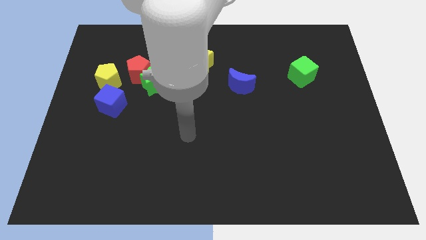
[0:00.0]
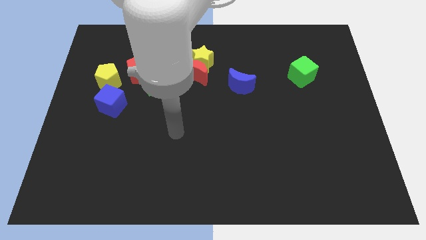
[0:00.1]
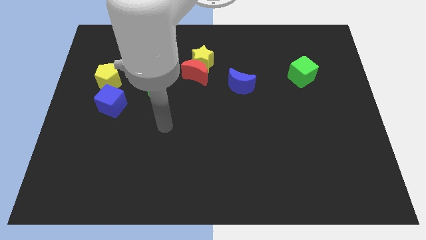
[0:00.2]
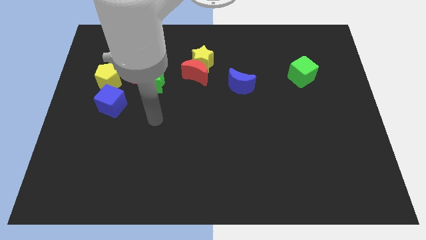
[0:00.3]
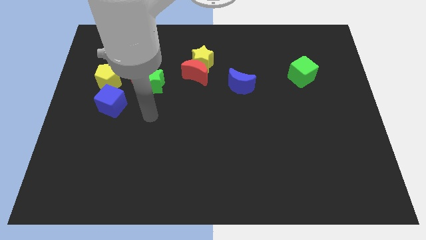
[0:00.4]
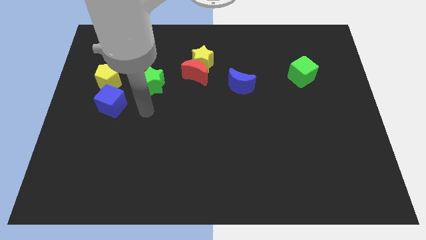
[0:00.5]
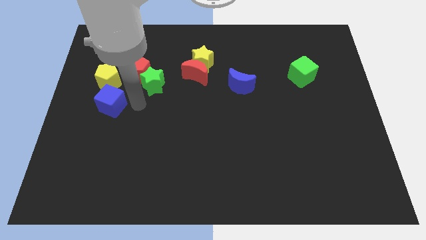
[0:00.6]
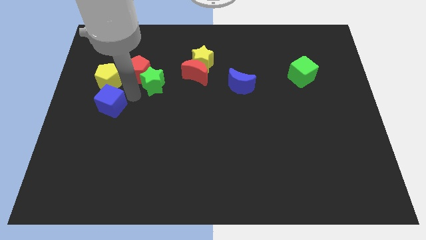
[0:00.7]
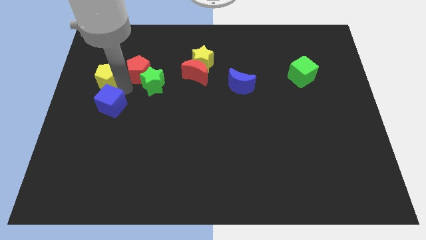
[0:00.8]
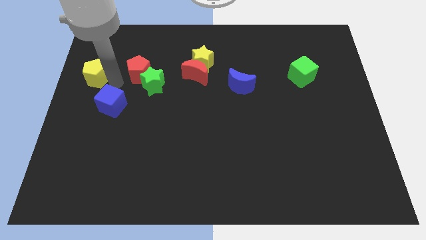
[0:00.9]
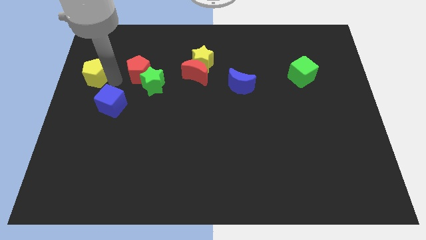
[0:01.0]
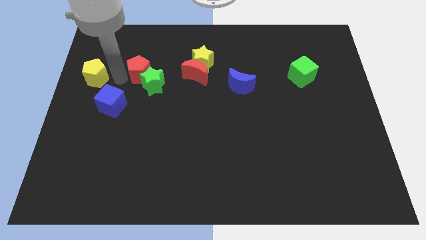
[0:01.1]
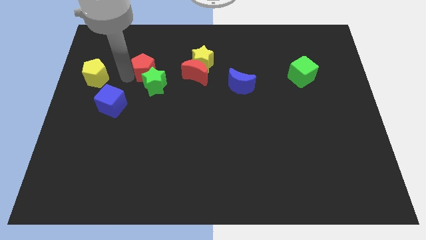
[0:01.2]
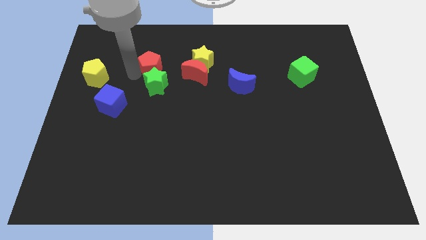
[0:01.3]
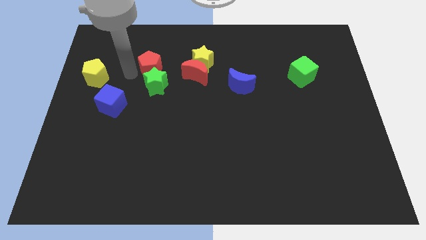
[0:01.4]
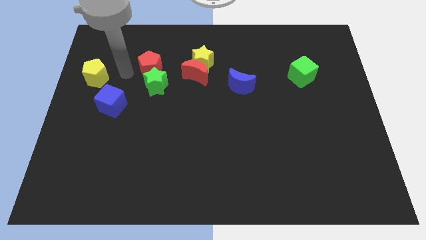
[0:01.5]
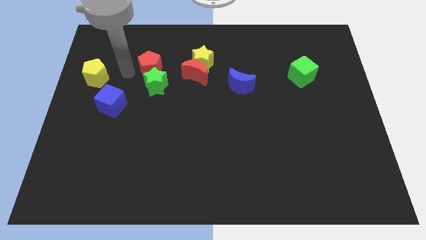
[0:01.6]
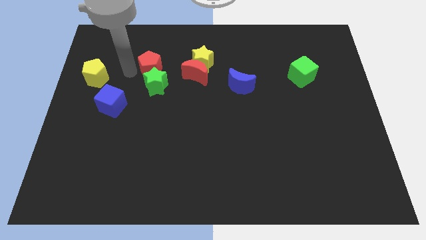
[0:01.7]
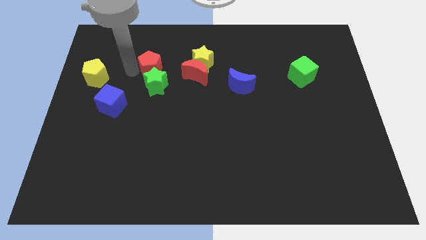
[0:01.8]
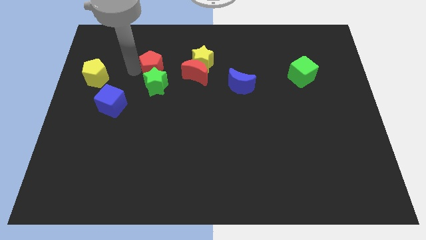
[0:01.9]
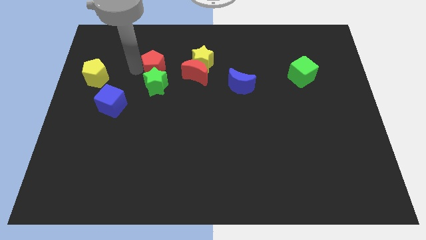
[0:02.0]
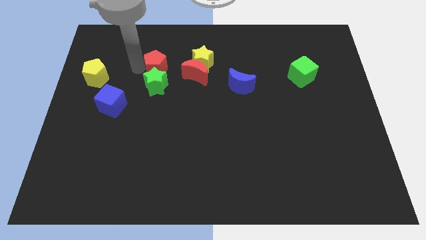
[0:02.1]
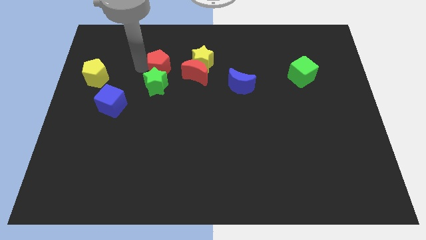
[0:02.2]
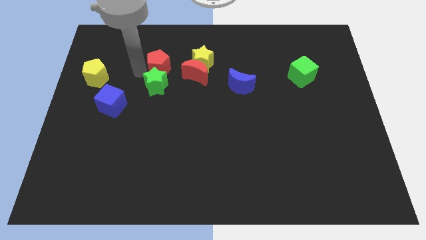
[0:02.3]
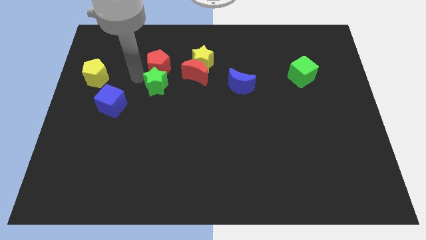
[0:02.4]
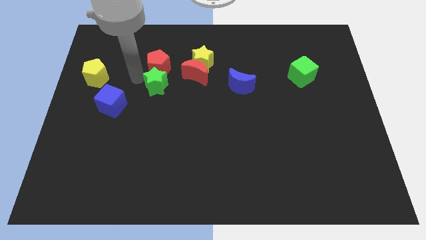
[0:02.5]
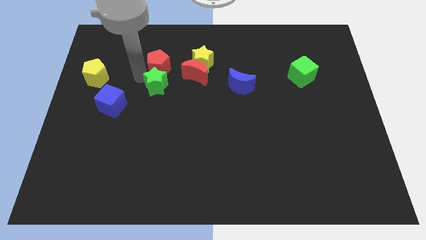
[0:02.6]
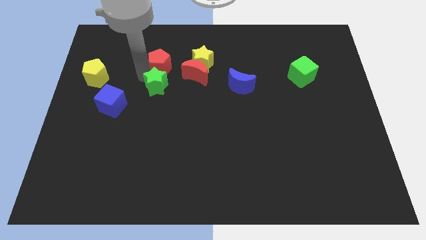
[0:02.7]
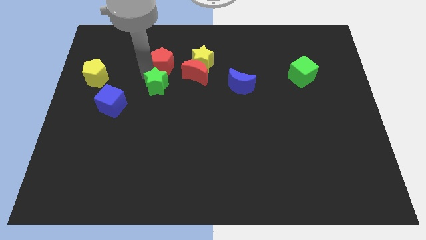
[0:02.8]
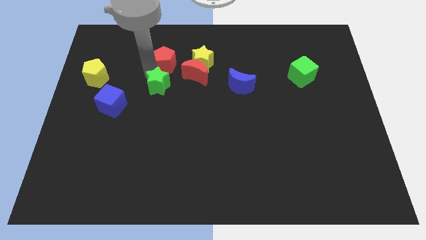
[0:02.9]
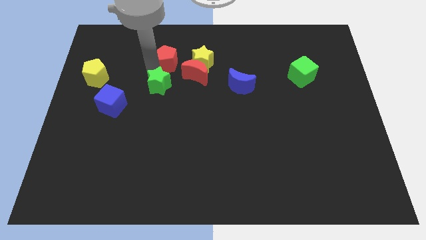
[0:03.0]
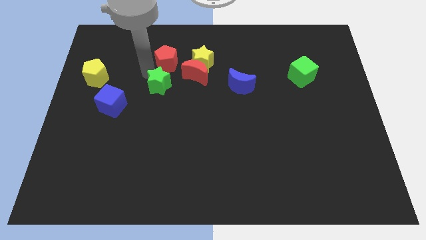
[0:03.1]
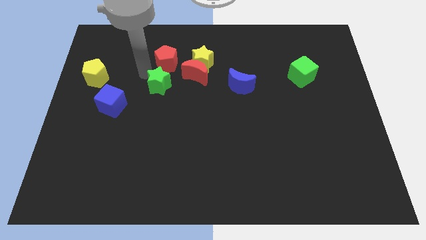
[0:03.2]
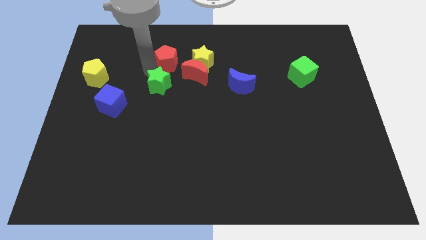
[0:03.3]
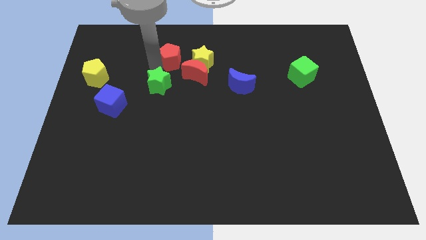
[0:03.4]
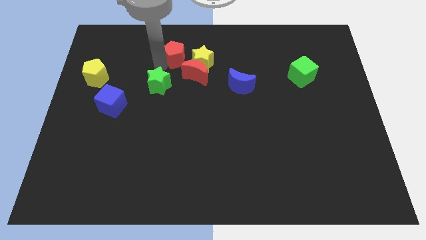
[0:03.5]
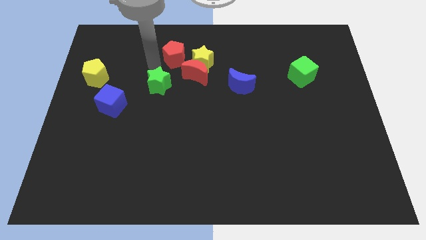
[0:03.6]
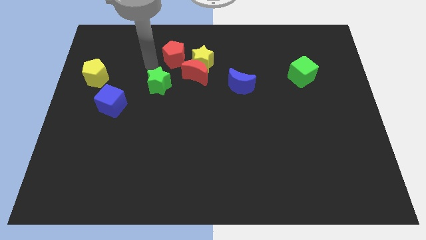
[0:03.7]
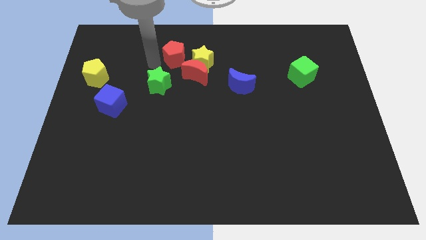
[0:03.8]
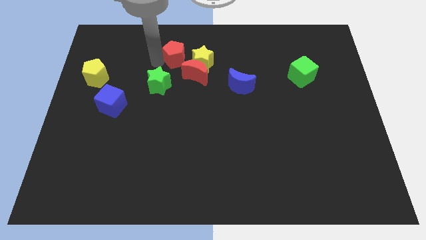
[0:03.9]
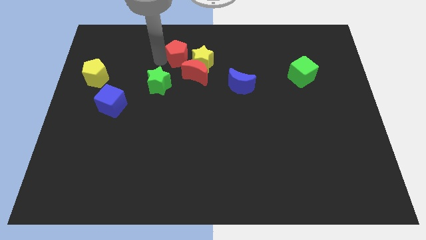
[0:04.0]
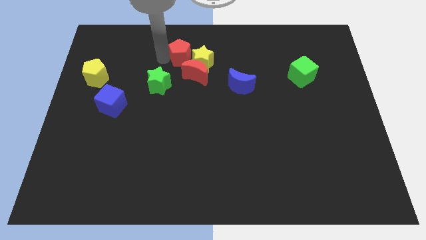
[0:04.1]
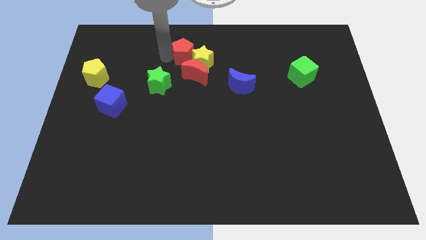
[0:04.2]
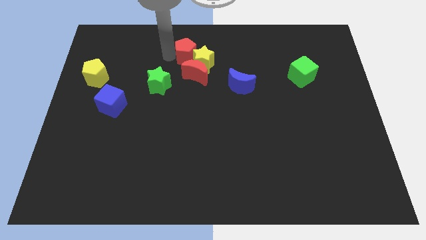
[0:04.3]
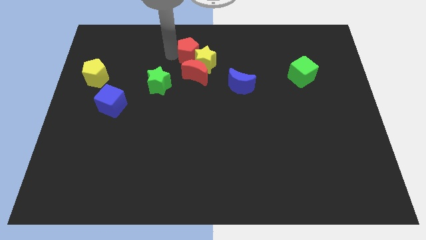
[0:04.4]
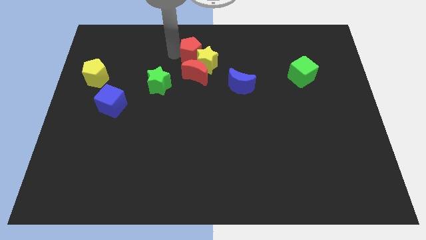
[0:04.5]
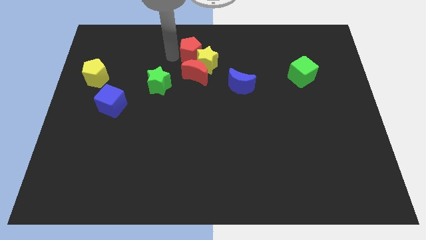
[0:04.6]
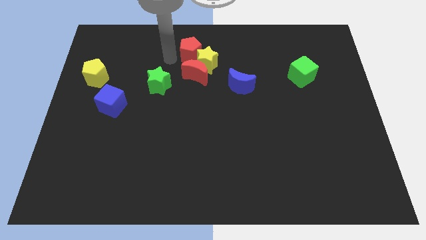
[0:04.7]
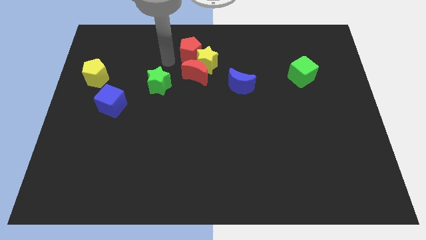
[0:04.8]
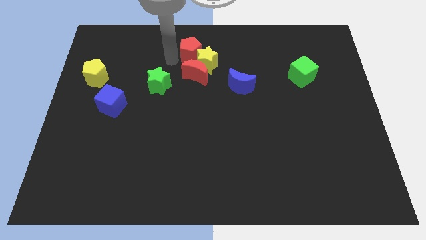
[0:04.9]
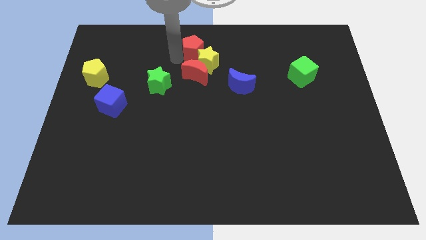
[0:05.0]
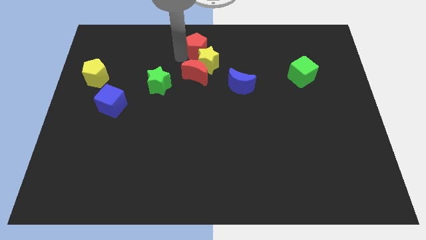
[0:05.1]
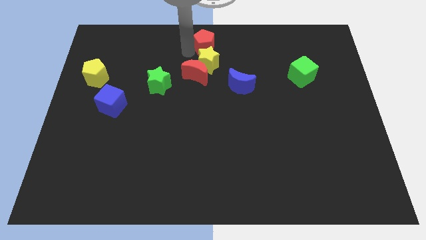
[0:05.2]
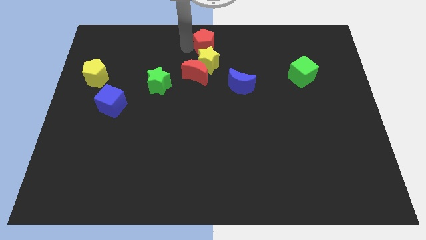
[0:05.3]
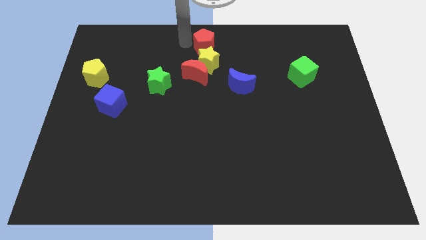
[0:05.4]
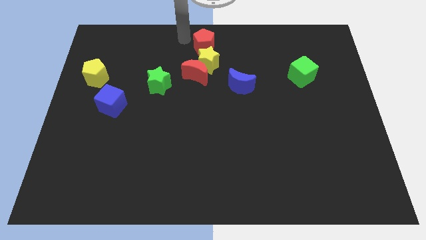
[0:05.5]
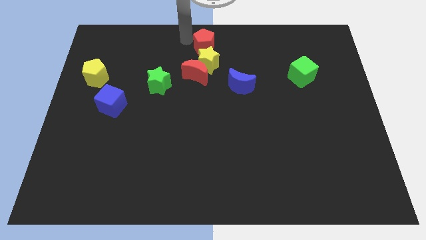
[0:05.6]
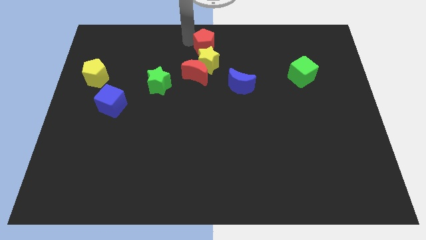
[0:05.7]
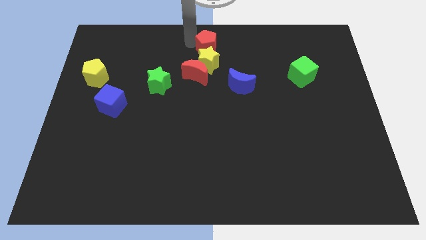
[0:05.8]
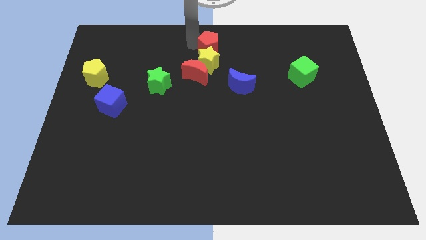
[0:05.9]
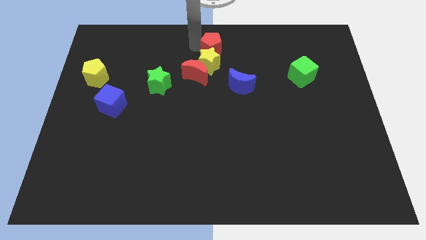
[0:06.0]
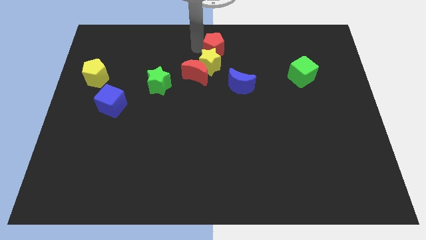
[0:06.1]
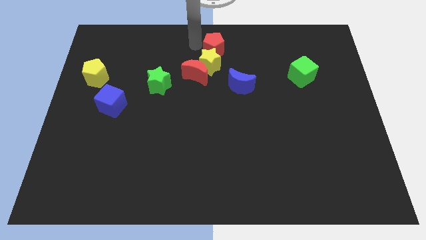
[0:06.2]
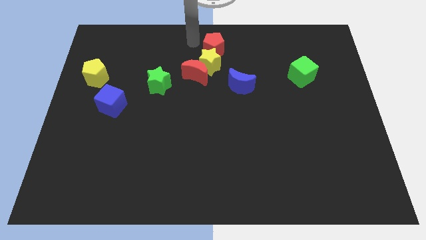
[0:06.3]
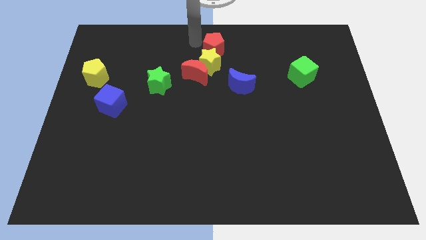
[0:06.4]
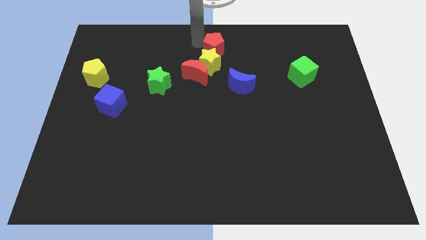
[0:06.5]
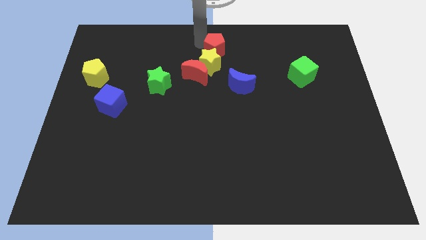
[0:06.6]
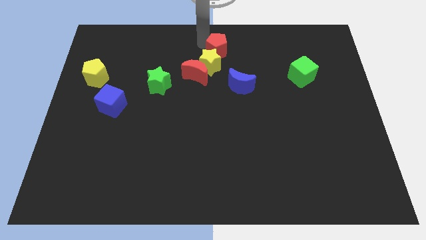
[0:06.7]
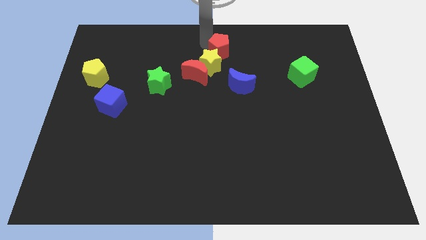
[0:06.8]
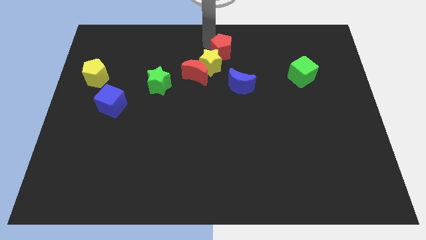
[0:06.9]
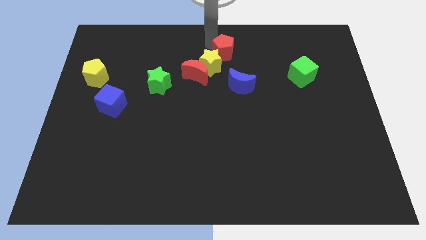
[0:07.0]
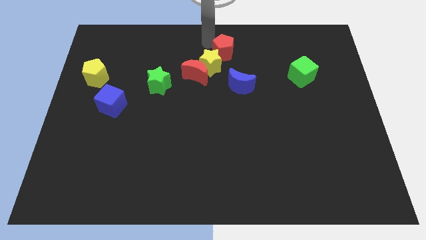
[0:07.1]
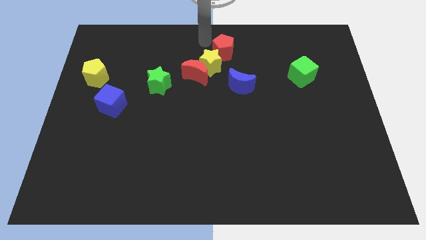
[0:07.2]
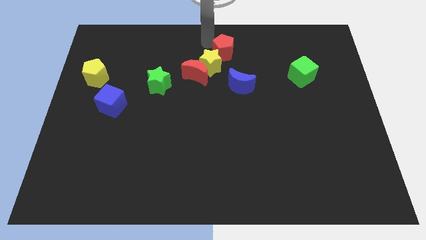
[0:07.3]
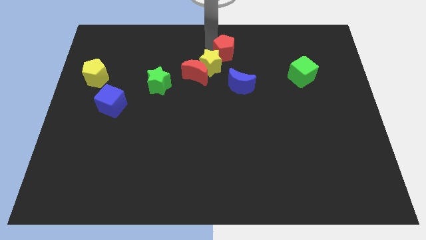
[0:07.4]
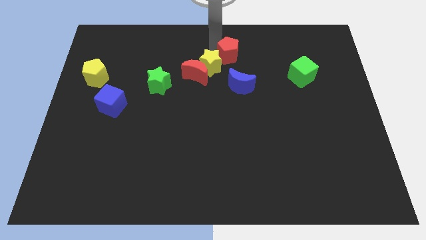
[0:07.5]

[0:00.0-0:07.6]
push the red pentagon to the right
